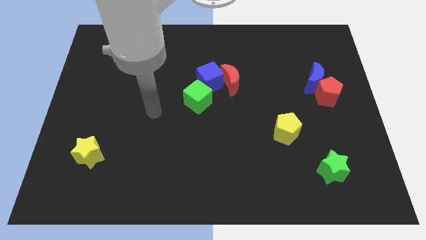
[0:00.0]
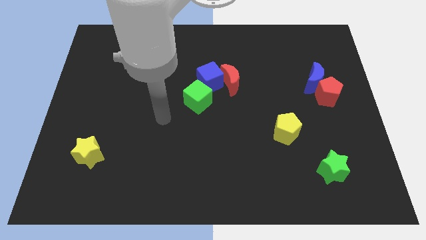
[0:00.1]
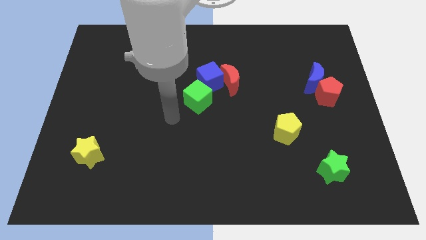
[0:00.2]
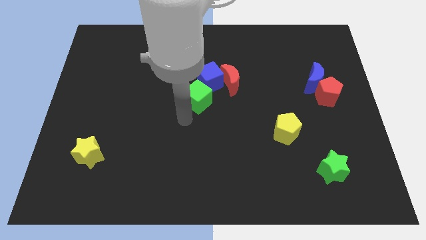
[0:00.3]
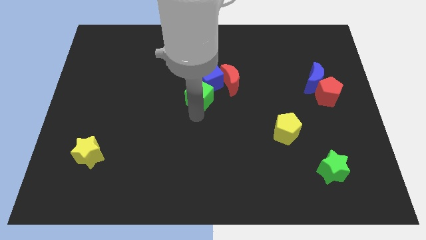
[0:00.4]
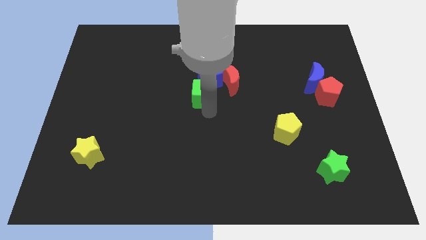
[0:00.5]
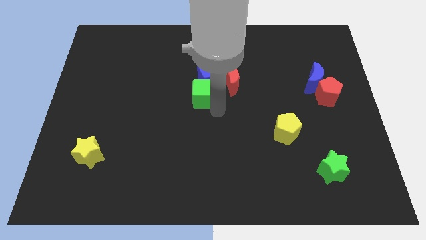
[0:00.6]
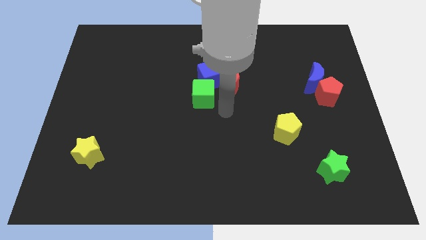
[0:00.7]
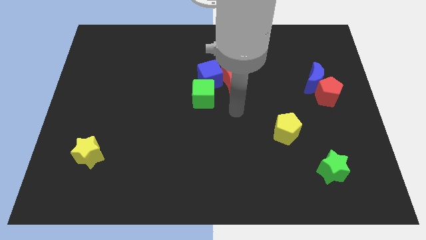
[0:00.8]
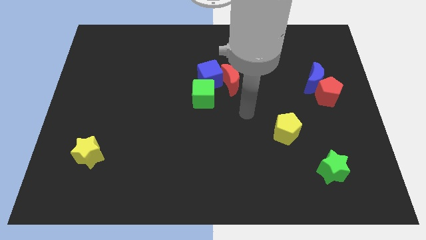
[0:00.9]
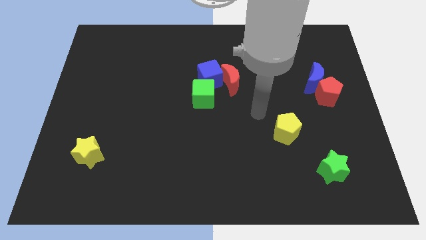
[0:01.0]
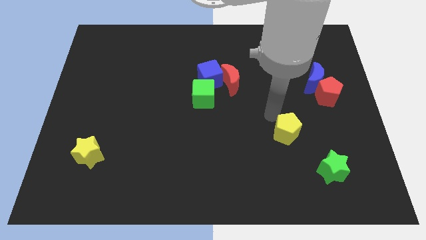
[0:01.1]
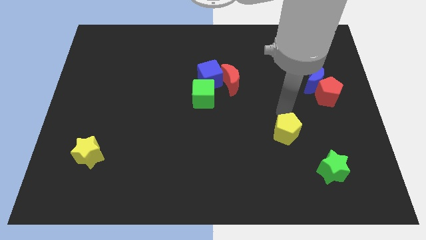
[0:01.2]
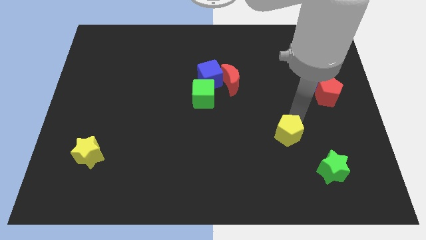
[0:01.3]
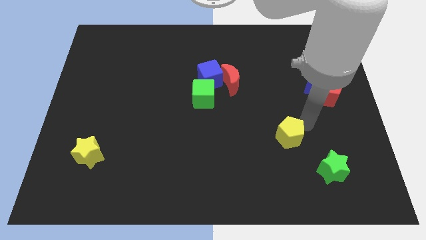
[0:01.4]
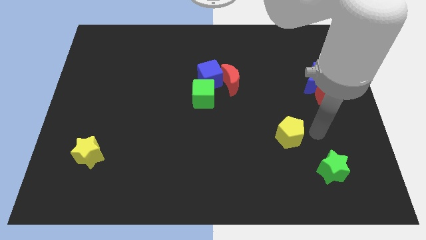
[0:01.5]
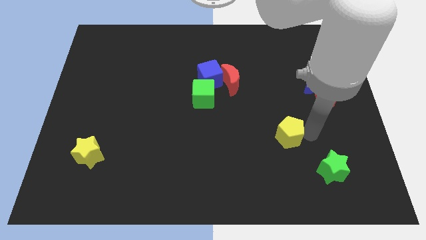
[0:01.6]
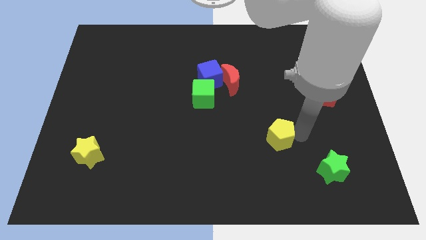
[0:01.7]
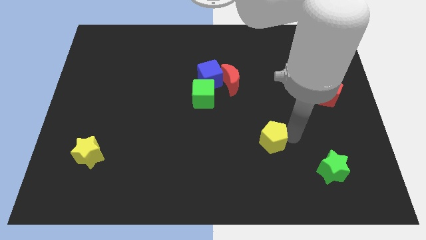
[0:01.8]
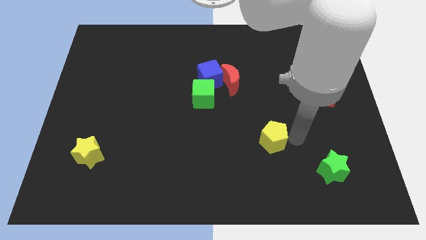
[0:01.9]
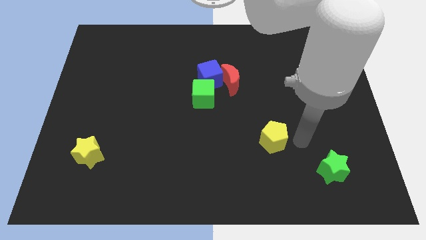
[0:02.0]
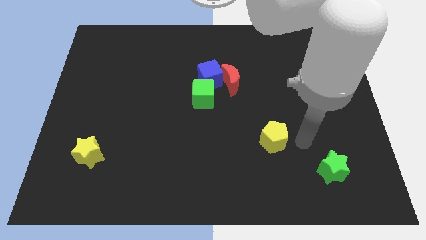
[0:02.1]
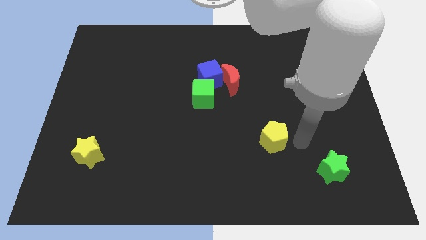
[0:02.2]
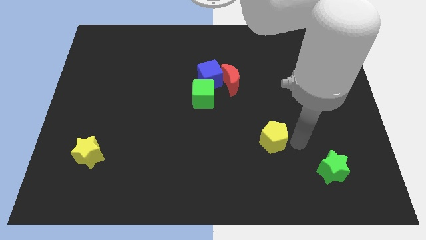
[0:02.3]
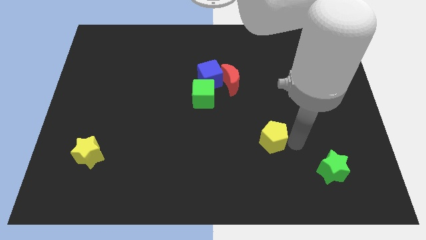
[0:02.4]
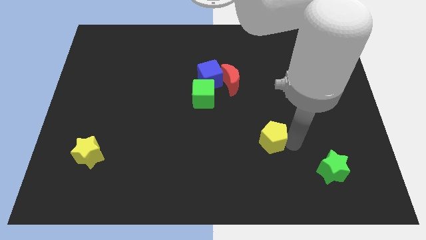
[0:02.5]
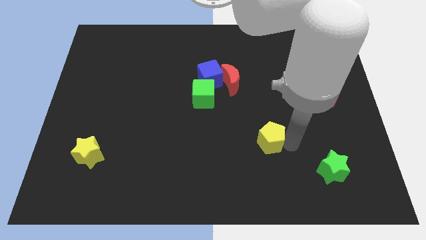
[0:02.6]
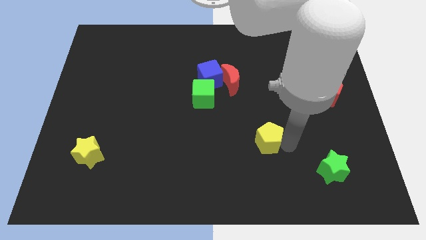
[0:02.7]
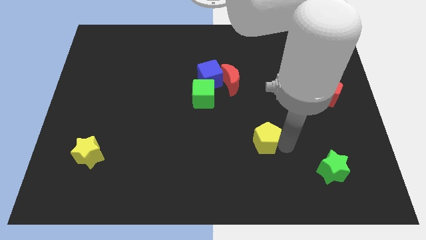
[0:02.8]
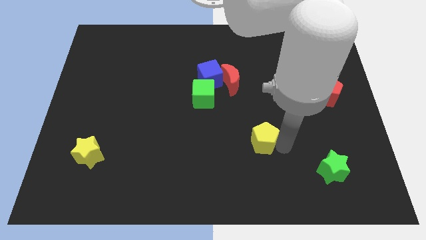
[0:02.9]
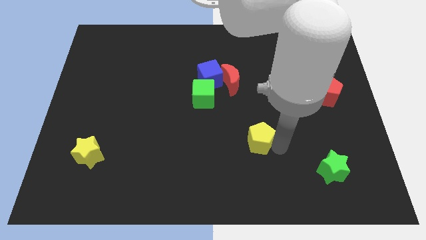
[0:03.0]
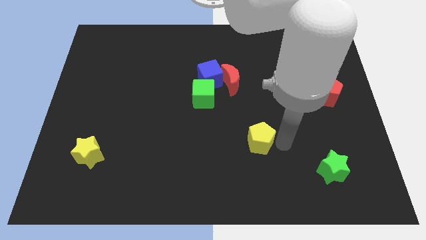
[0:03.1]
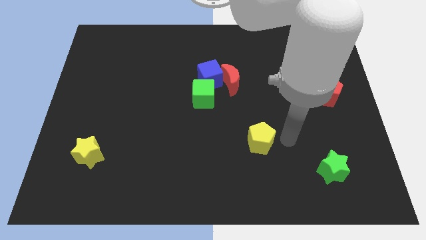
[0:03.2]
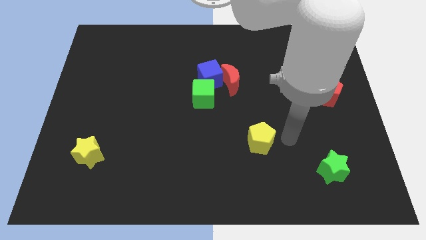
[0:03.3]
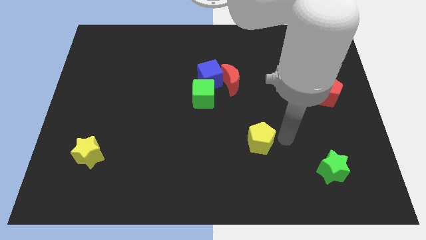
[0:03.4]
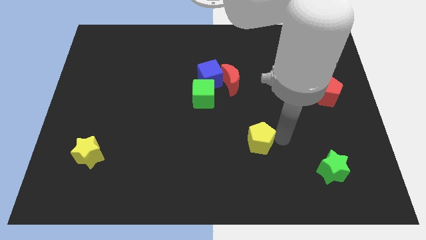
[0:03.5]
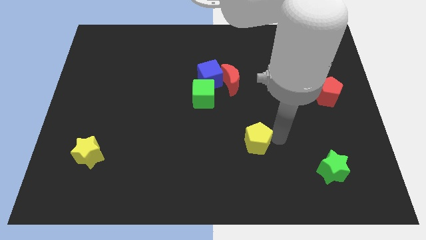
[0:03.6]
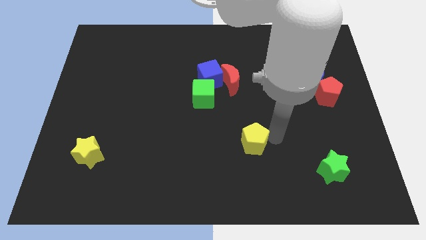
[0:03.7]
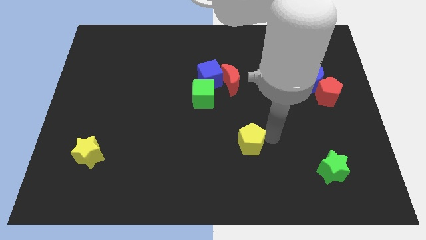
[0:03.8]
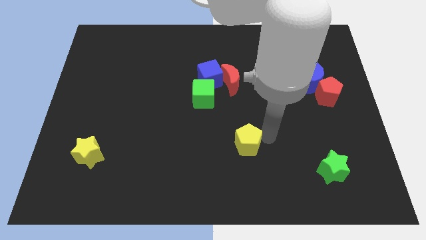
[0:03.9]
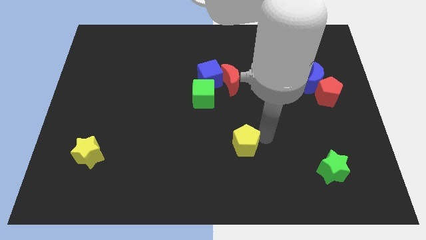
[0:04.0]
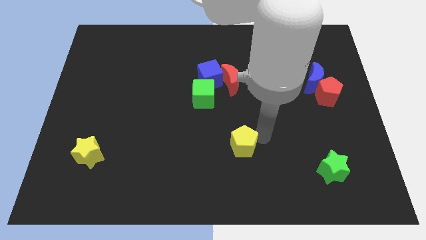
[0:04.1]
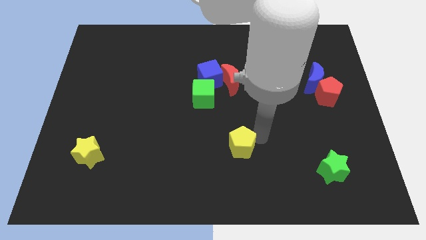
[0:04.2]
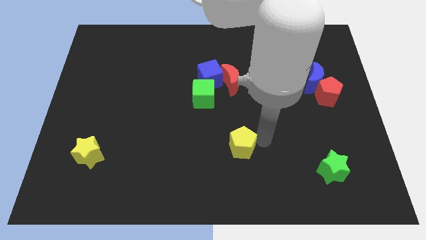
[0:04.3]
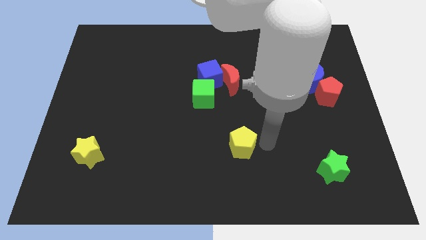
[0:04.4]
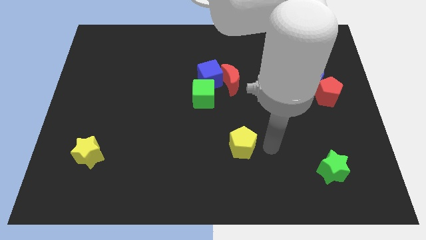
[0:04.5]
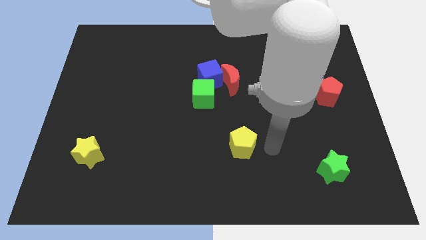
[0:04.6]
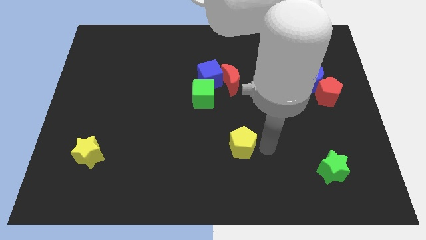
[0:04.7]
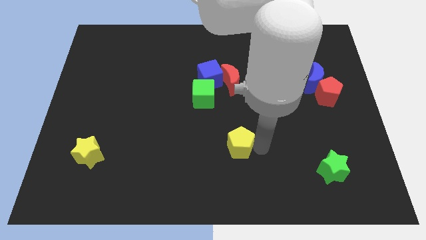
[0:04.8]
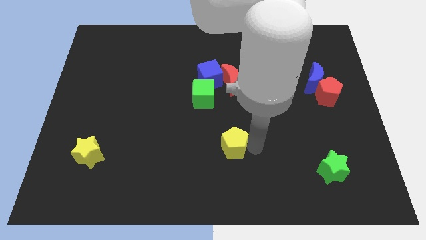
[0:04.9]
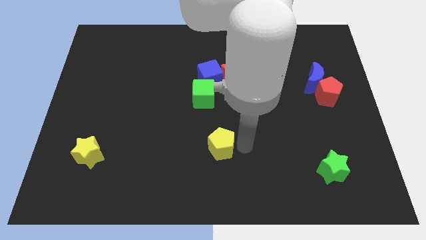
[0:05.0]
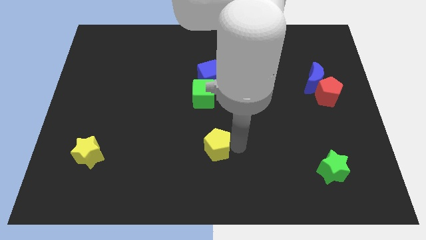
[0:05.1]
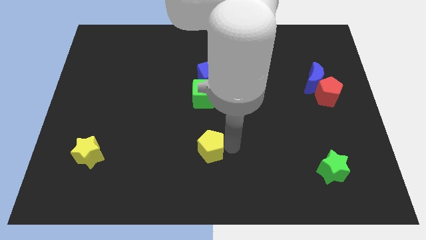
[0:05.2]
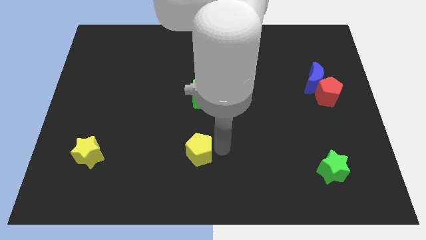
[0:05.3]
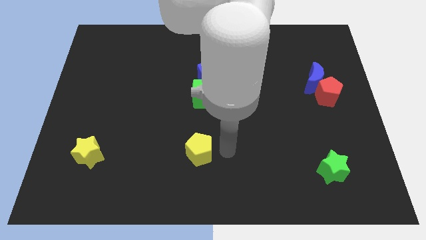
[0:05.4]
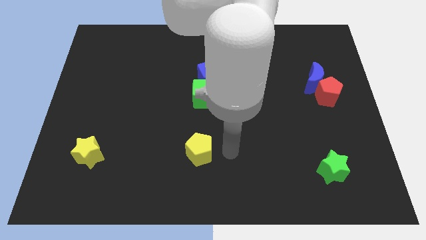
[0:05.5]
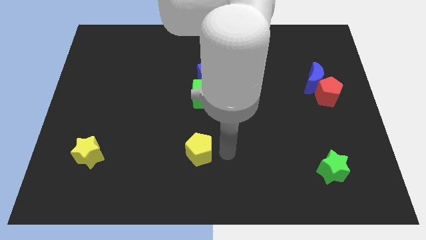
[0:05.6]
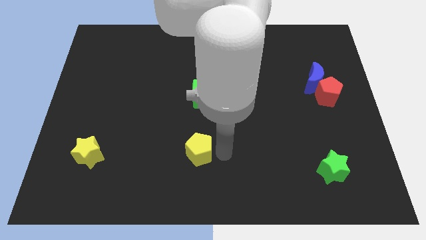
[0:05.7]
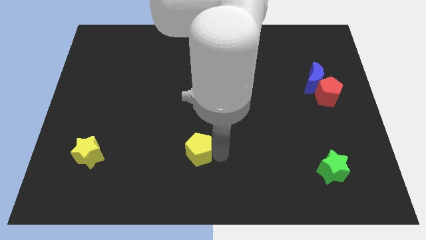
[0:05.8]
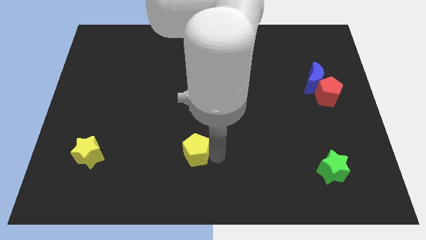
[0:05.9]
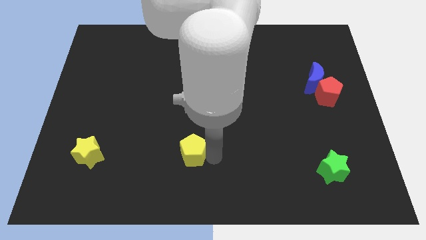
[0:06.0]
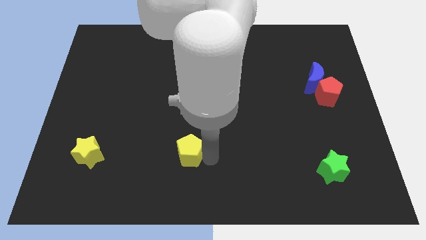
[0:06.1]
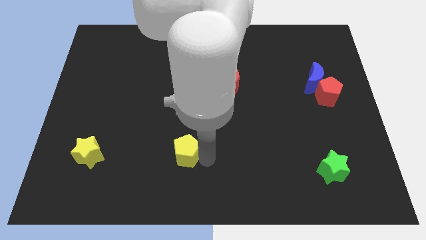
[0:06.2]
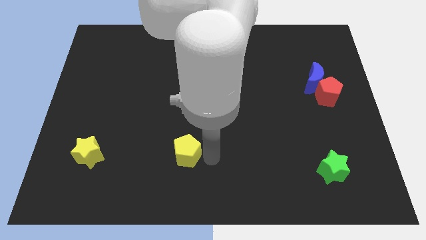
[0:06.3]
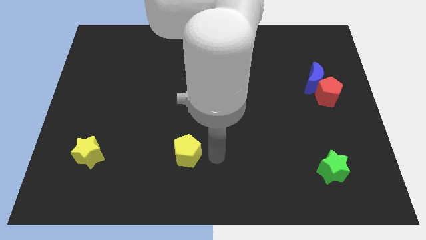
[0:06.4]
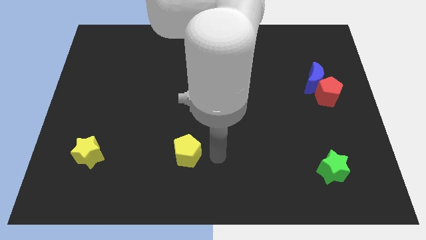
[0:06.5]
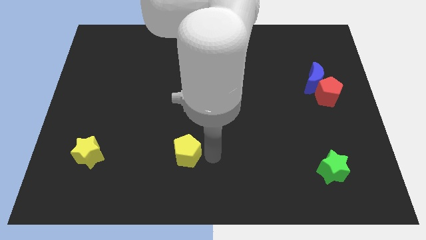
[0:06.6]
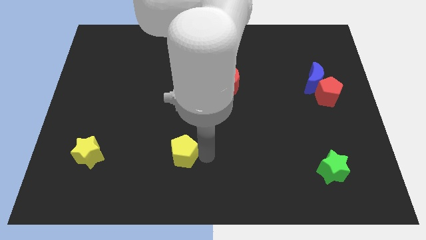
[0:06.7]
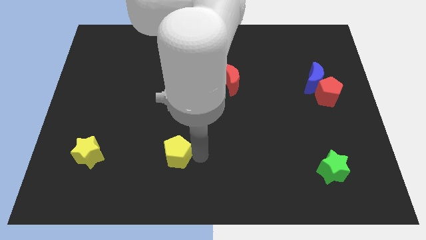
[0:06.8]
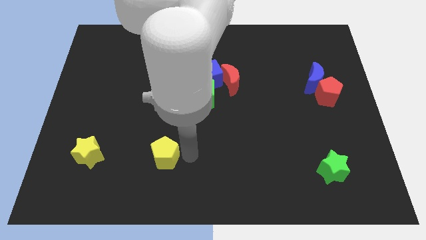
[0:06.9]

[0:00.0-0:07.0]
push the yellow pentagon right of the yellow star
